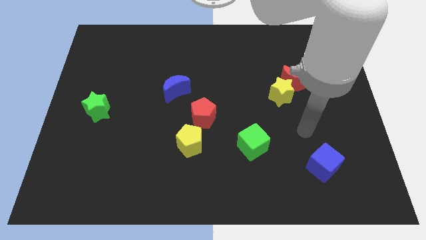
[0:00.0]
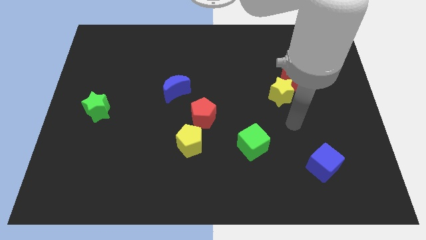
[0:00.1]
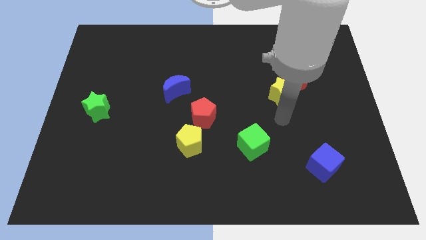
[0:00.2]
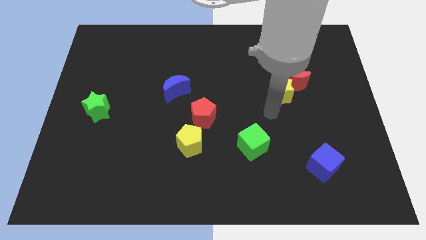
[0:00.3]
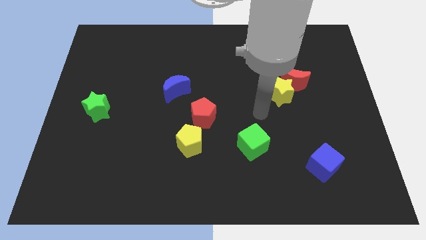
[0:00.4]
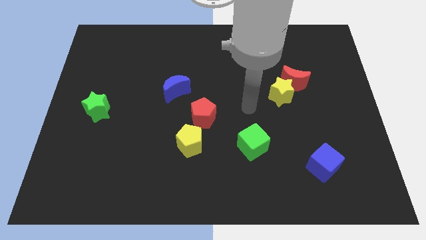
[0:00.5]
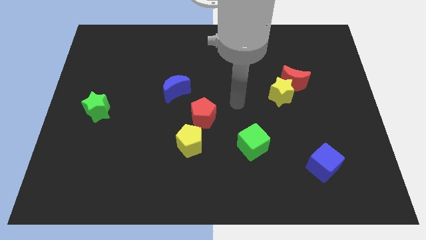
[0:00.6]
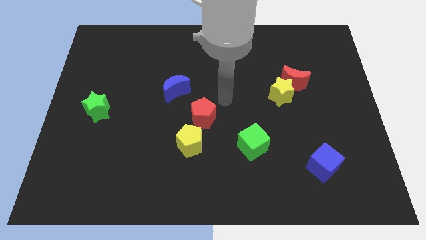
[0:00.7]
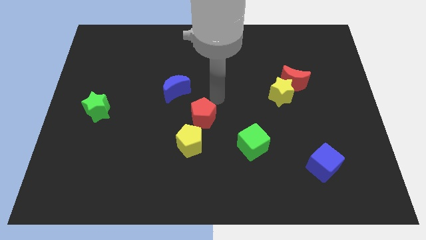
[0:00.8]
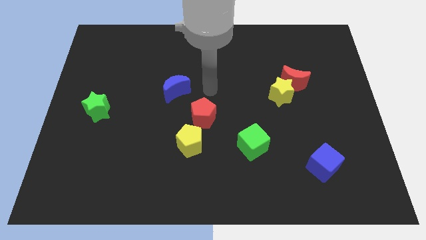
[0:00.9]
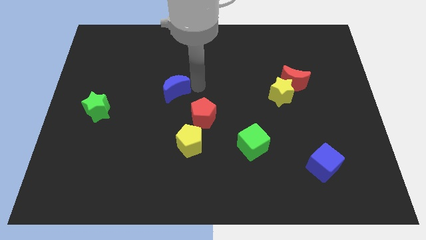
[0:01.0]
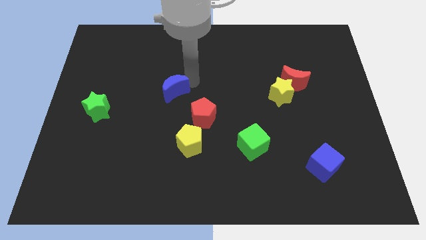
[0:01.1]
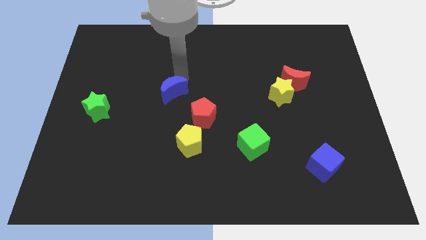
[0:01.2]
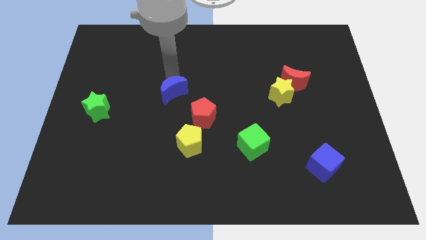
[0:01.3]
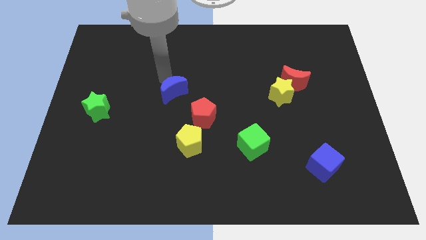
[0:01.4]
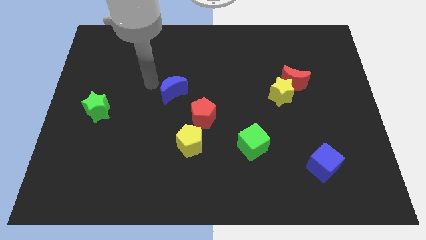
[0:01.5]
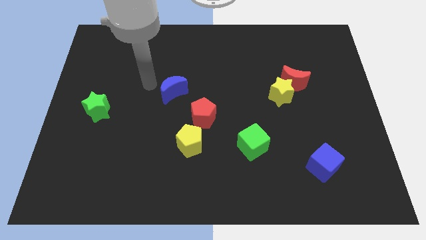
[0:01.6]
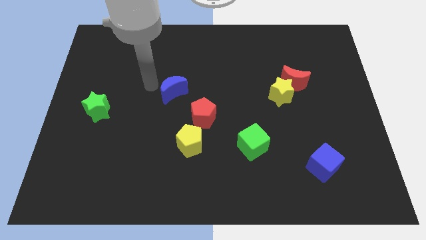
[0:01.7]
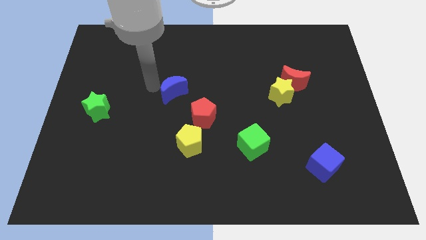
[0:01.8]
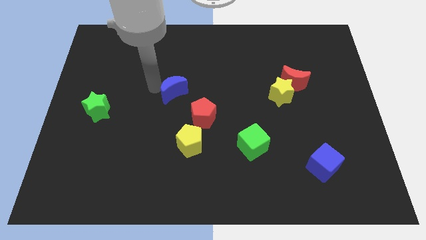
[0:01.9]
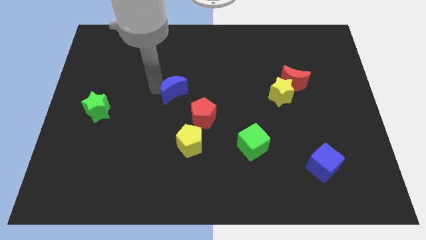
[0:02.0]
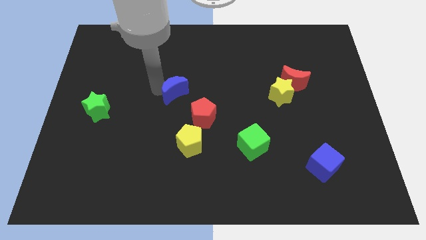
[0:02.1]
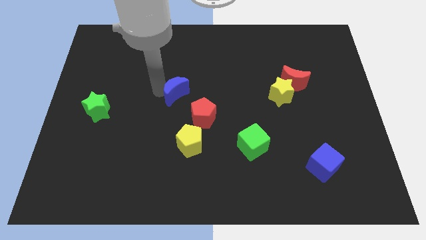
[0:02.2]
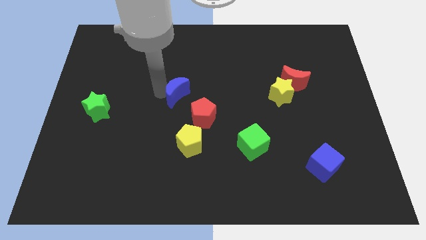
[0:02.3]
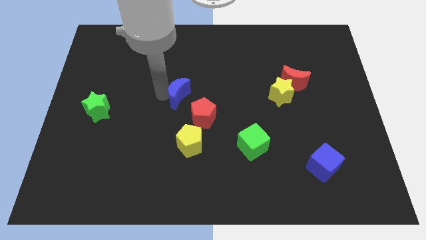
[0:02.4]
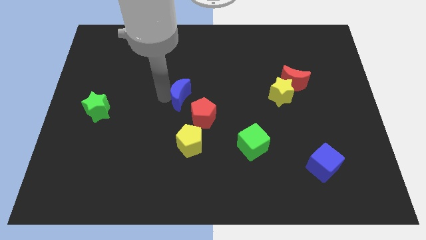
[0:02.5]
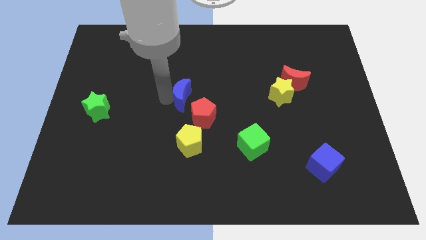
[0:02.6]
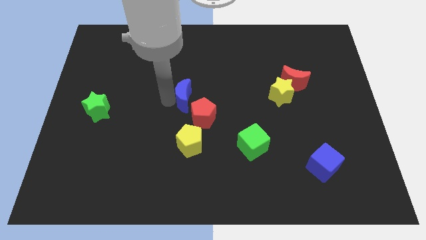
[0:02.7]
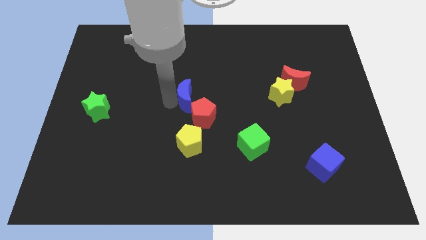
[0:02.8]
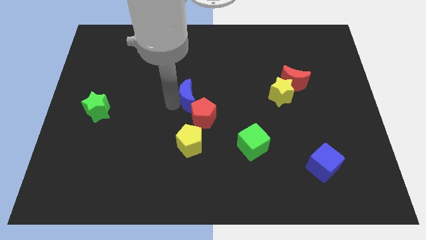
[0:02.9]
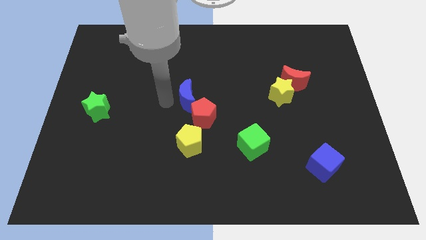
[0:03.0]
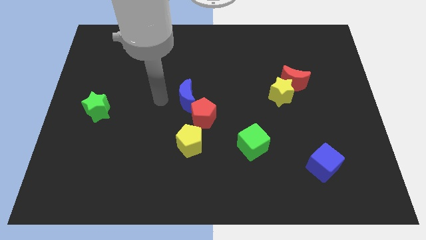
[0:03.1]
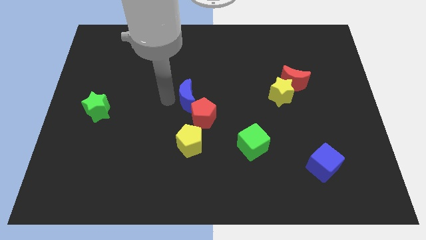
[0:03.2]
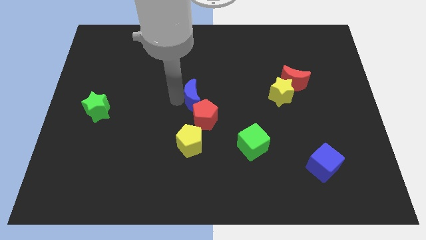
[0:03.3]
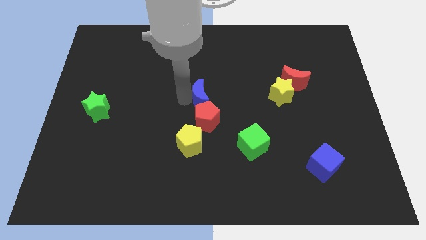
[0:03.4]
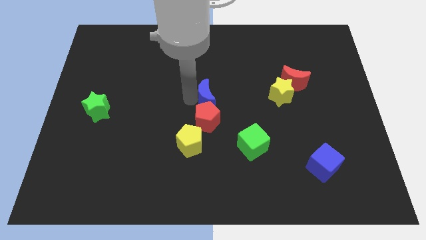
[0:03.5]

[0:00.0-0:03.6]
slightly push the blue moon down and to the right

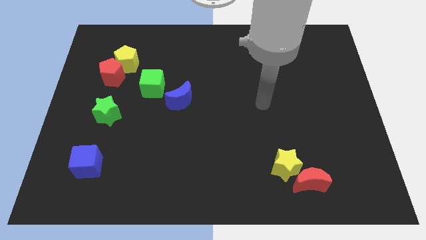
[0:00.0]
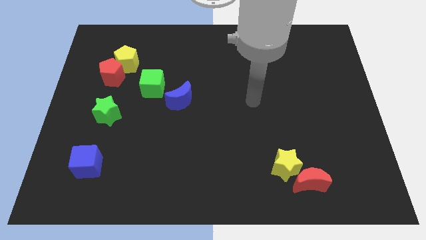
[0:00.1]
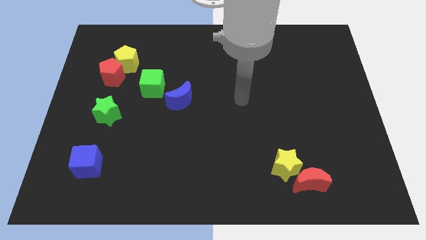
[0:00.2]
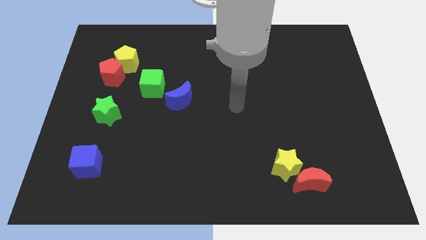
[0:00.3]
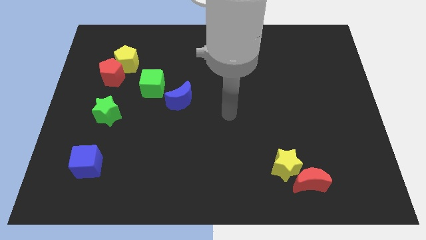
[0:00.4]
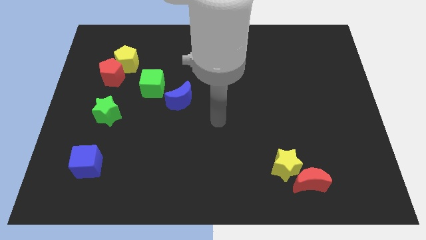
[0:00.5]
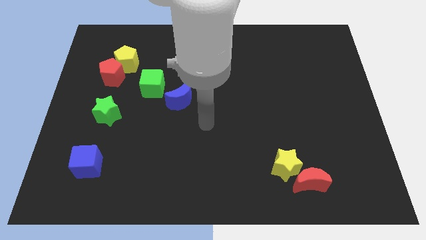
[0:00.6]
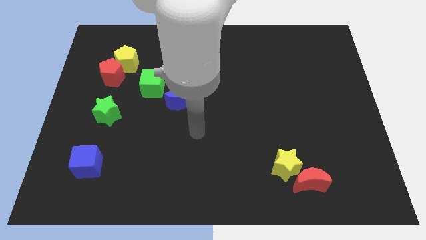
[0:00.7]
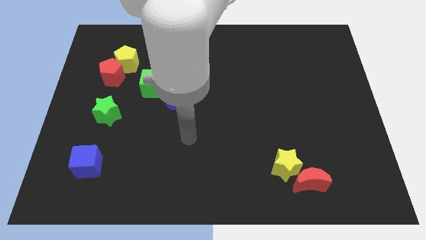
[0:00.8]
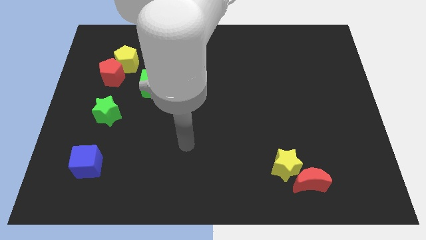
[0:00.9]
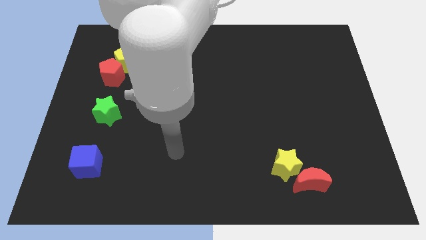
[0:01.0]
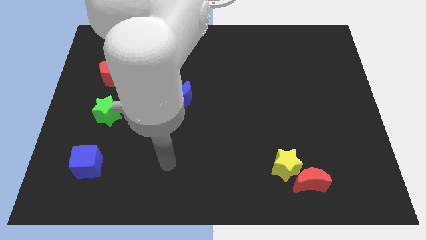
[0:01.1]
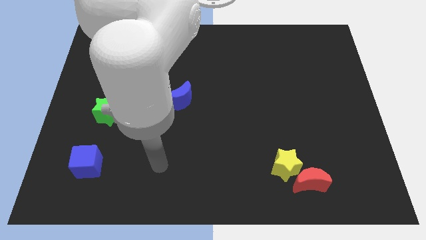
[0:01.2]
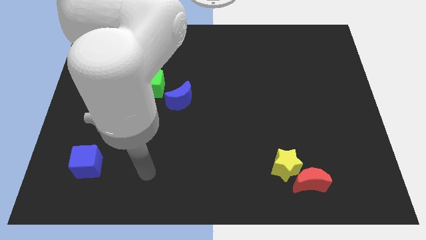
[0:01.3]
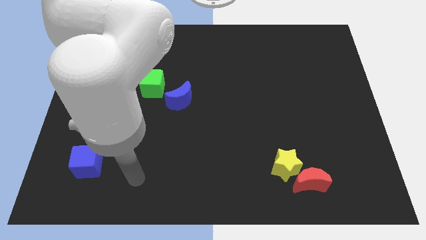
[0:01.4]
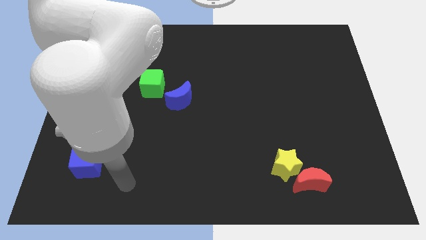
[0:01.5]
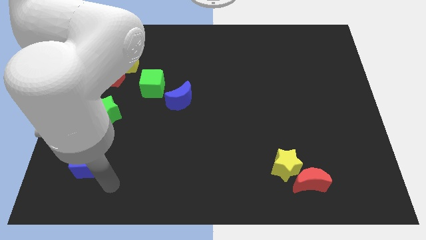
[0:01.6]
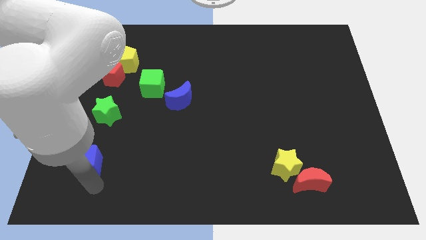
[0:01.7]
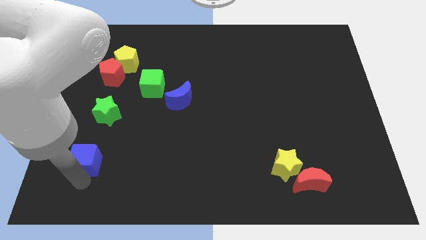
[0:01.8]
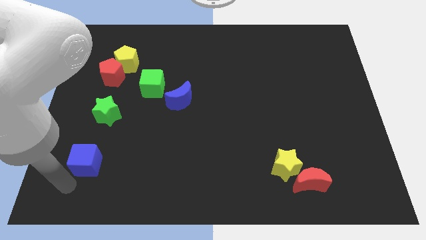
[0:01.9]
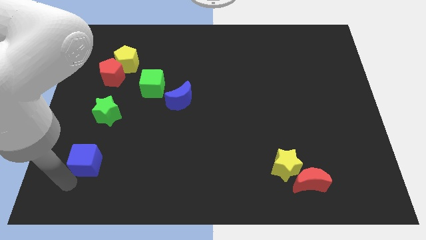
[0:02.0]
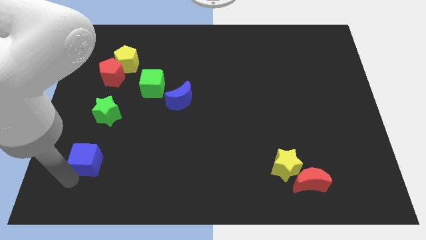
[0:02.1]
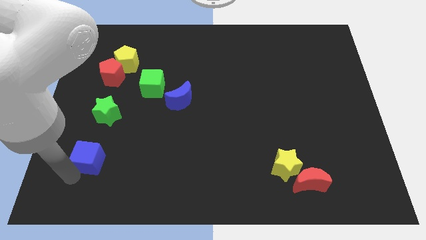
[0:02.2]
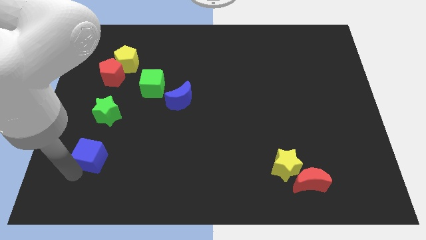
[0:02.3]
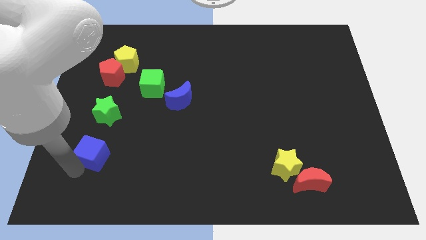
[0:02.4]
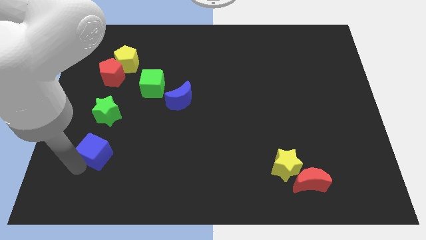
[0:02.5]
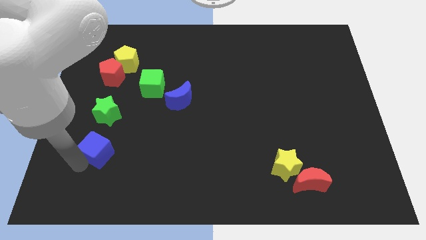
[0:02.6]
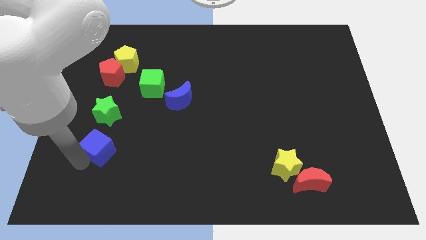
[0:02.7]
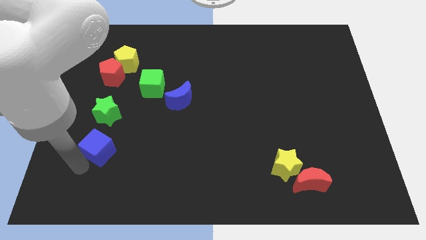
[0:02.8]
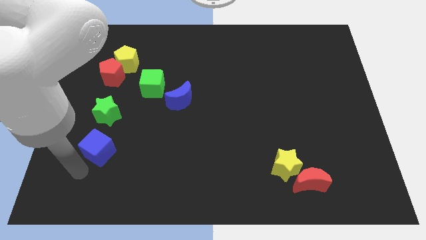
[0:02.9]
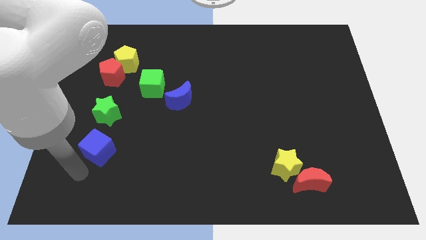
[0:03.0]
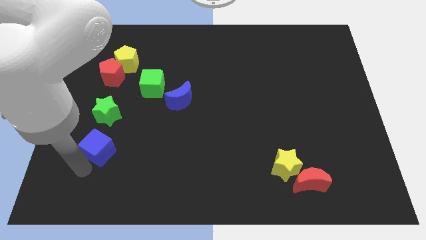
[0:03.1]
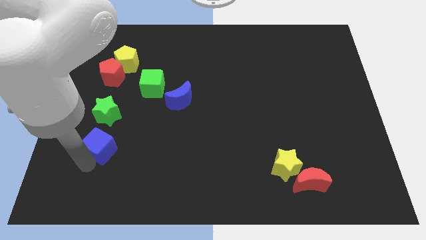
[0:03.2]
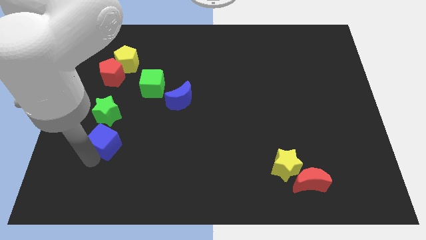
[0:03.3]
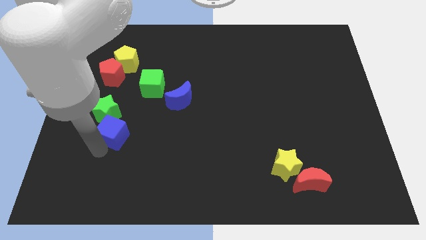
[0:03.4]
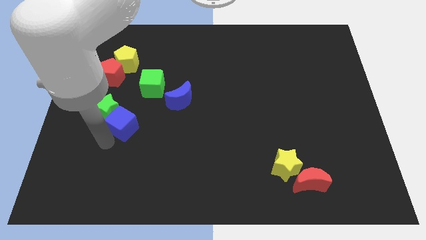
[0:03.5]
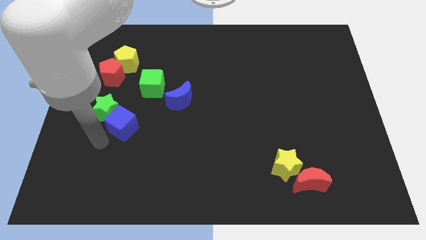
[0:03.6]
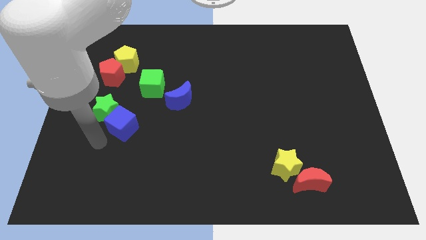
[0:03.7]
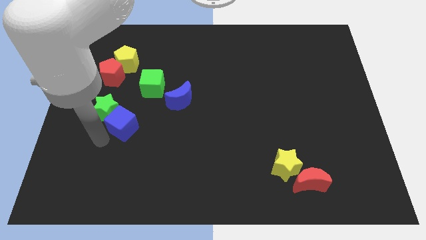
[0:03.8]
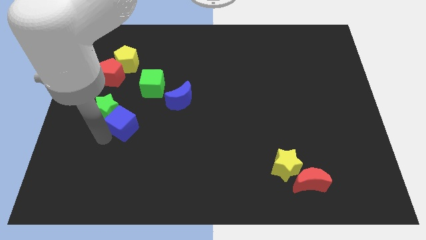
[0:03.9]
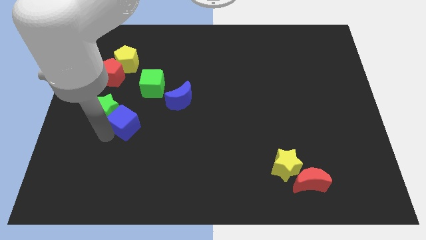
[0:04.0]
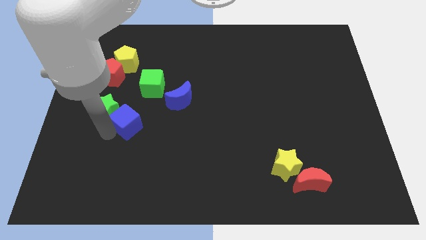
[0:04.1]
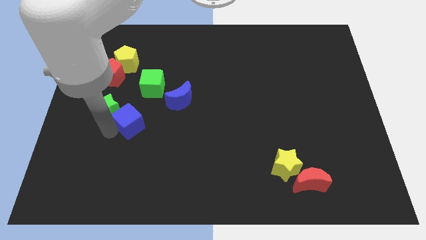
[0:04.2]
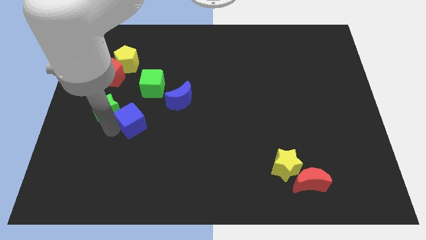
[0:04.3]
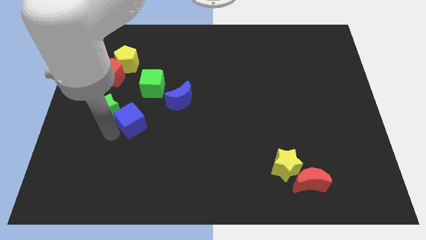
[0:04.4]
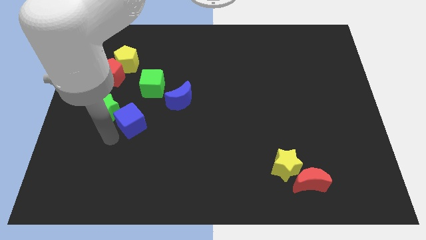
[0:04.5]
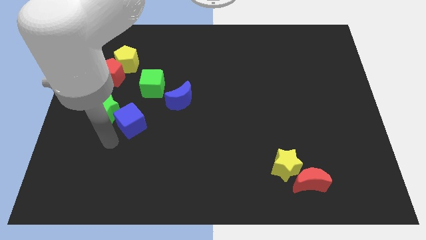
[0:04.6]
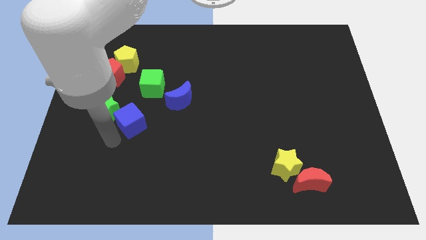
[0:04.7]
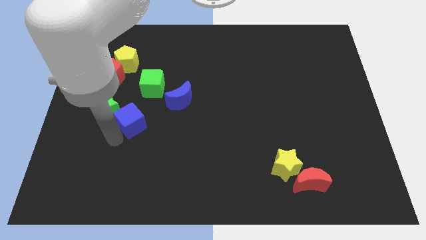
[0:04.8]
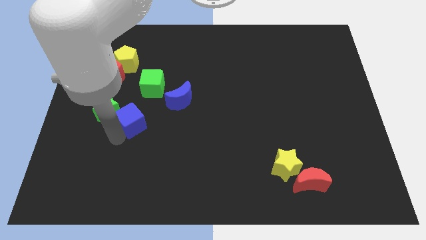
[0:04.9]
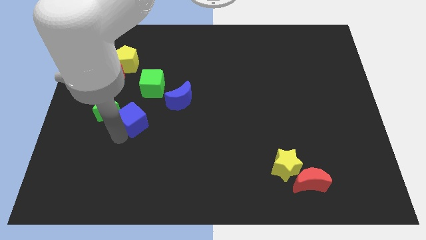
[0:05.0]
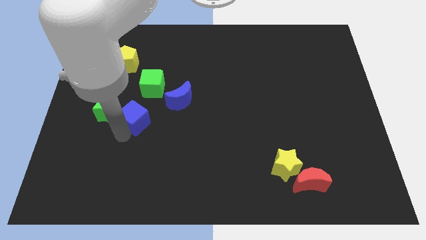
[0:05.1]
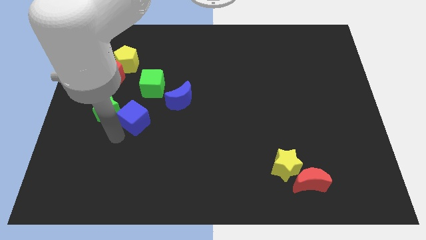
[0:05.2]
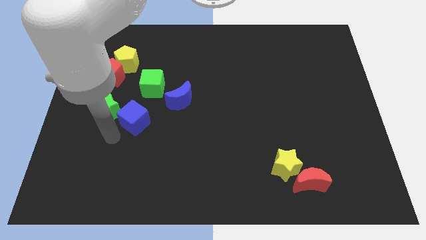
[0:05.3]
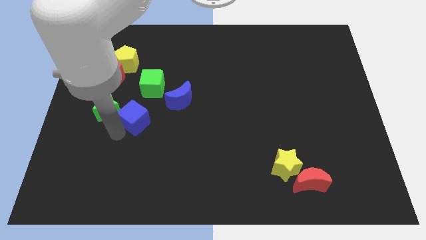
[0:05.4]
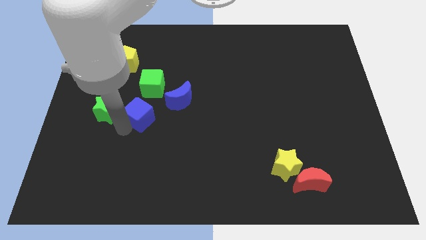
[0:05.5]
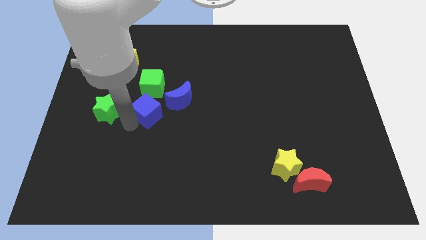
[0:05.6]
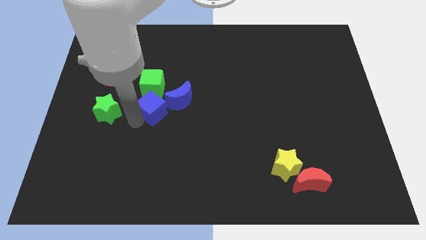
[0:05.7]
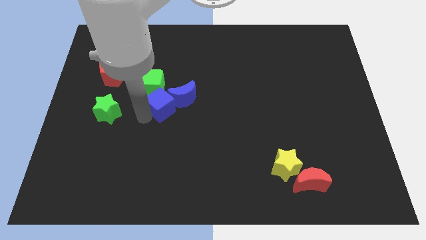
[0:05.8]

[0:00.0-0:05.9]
slide the blue cube up and right diagonally
